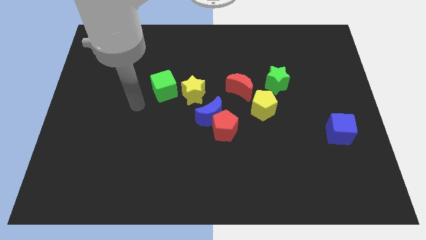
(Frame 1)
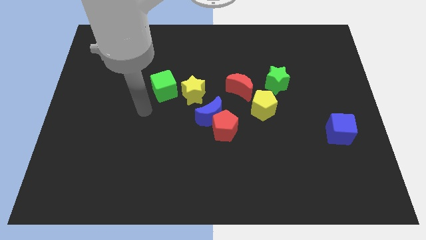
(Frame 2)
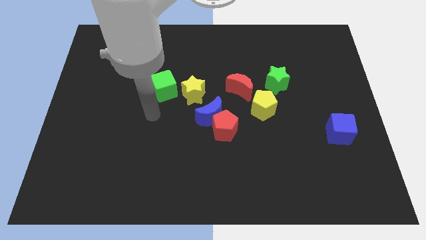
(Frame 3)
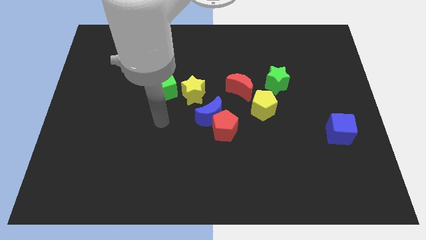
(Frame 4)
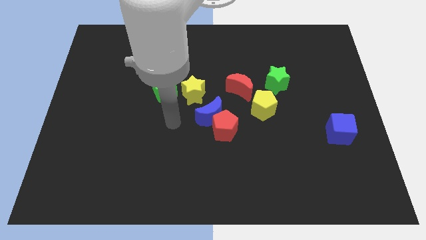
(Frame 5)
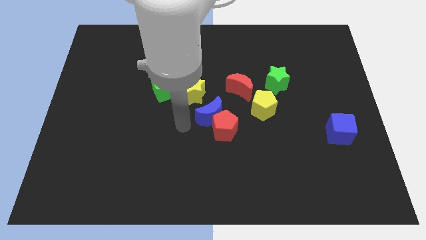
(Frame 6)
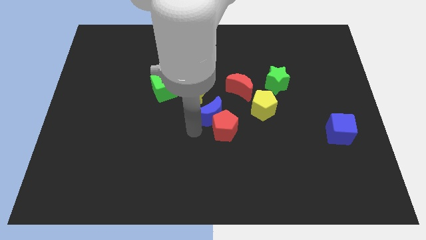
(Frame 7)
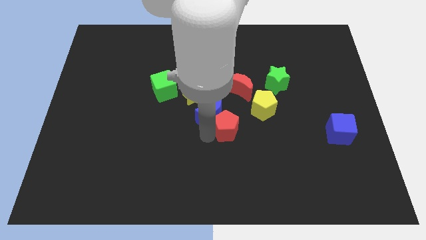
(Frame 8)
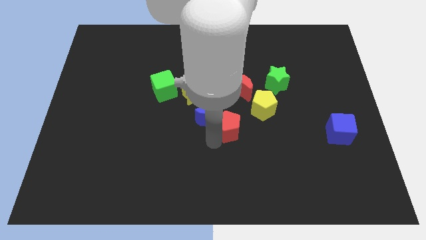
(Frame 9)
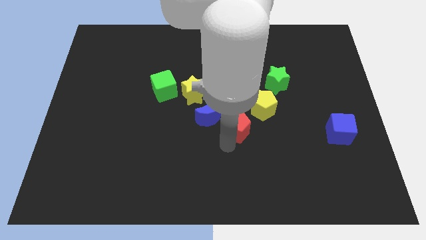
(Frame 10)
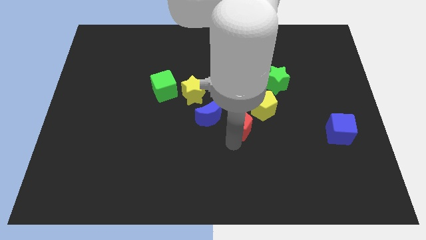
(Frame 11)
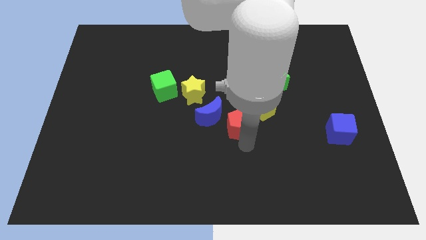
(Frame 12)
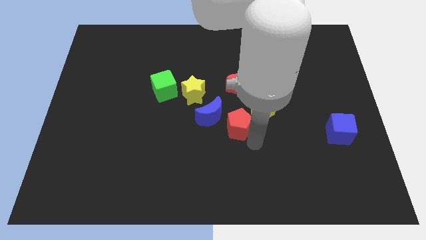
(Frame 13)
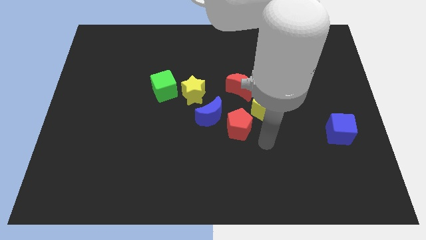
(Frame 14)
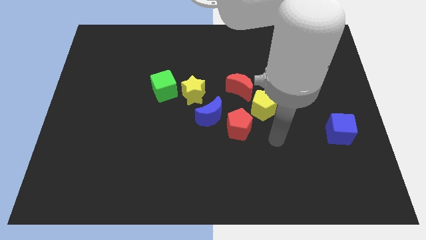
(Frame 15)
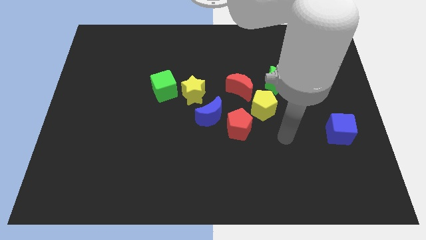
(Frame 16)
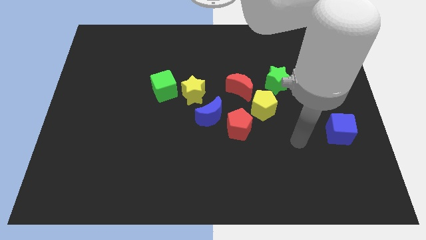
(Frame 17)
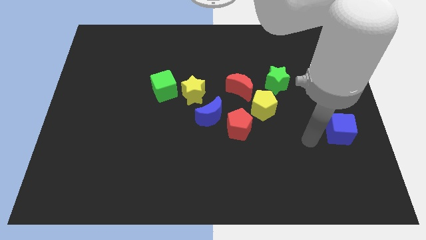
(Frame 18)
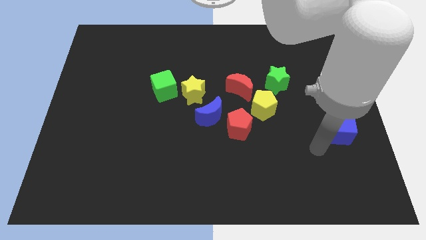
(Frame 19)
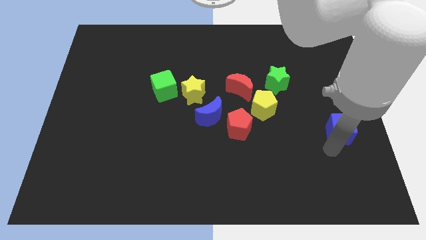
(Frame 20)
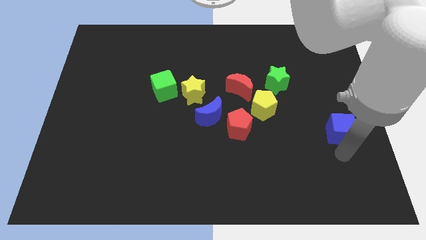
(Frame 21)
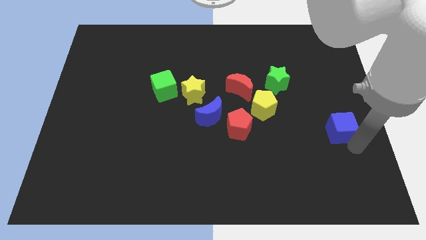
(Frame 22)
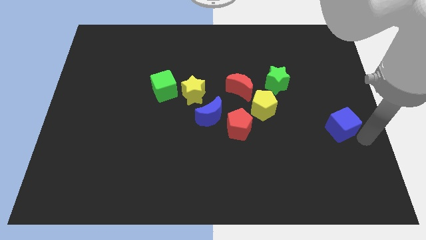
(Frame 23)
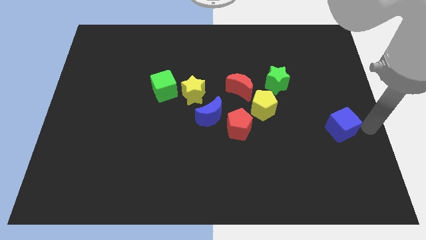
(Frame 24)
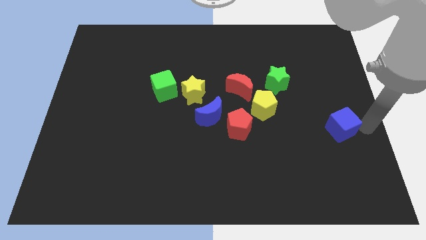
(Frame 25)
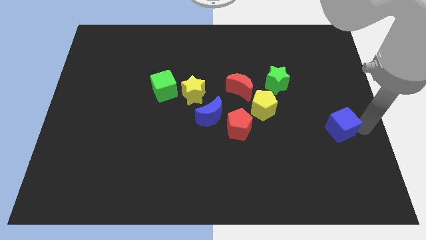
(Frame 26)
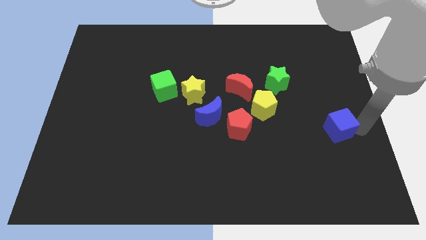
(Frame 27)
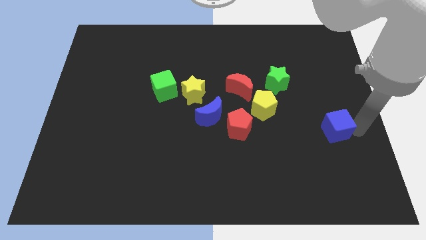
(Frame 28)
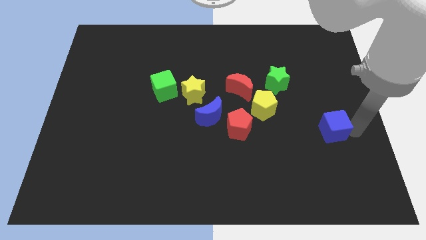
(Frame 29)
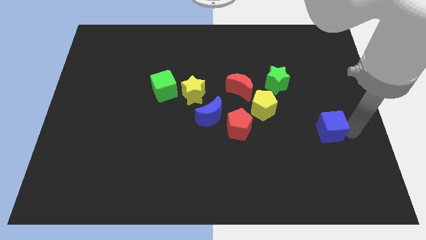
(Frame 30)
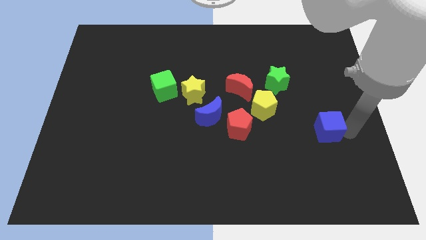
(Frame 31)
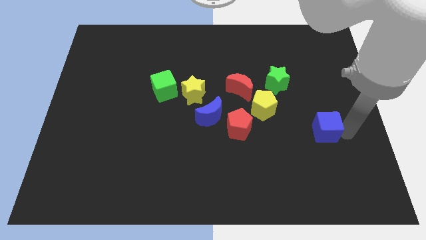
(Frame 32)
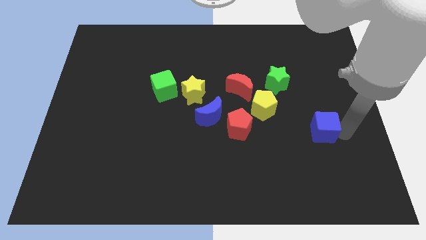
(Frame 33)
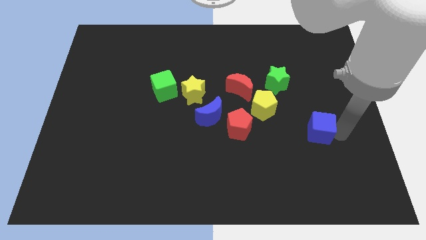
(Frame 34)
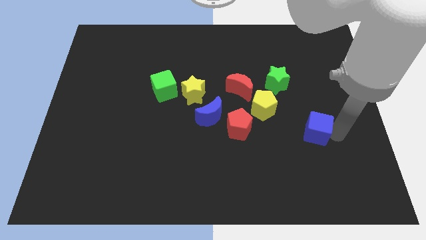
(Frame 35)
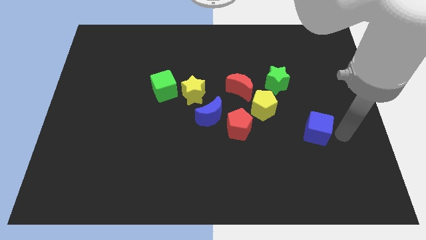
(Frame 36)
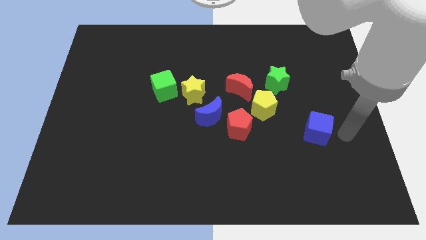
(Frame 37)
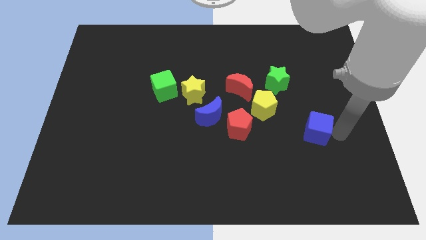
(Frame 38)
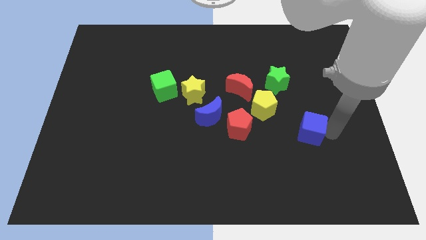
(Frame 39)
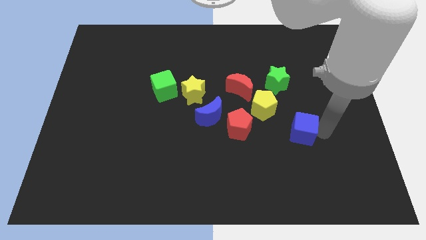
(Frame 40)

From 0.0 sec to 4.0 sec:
move the blue cube a bit left

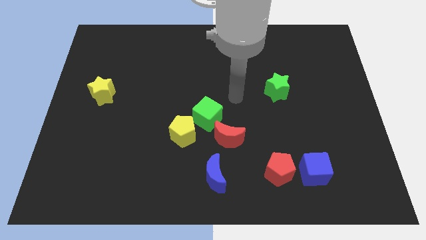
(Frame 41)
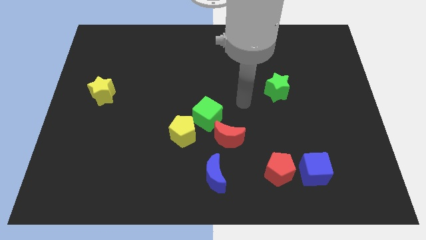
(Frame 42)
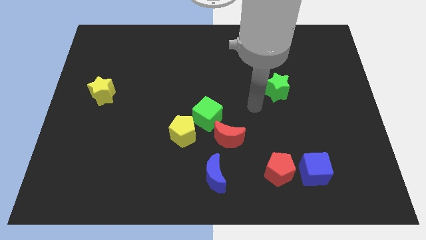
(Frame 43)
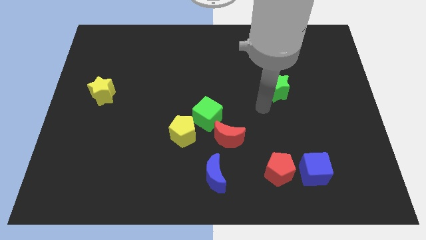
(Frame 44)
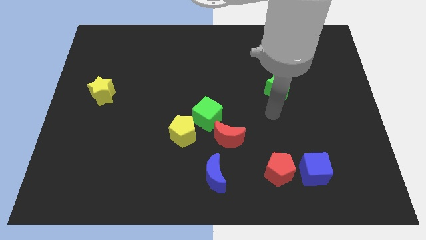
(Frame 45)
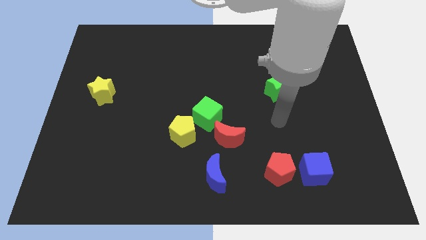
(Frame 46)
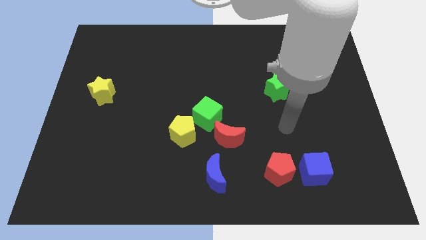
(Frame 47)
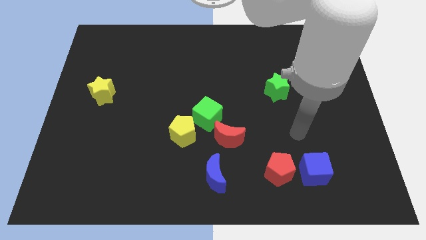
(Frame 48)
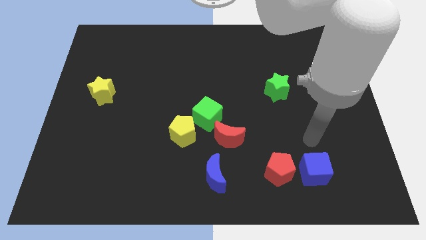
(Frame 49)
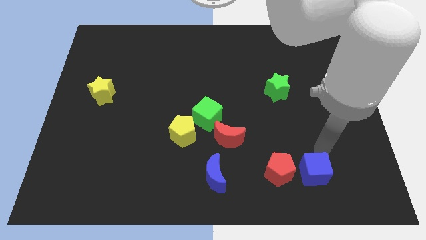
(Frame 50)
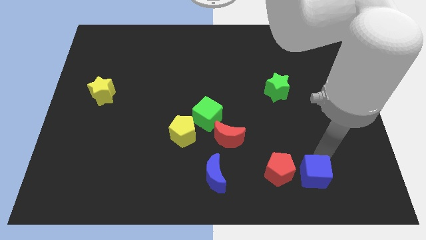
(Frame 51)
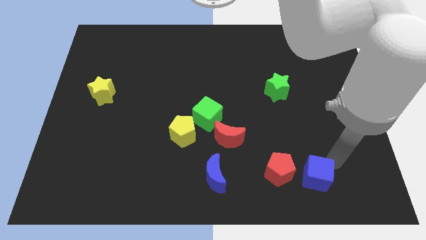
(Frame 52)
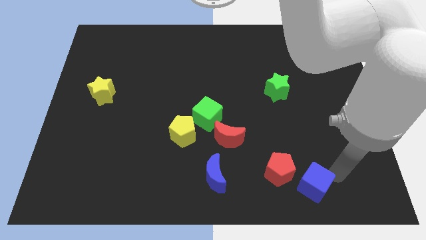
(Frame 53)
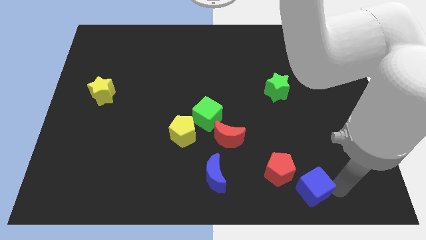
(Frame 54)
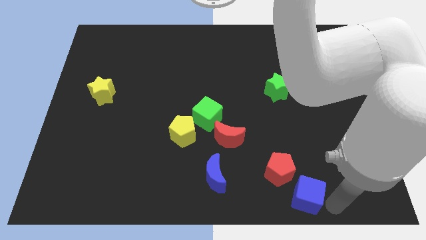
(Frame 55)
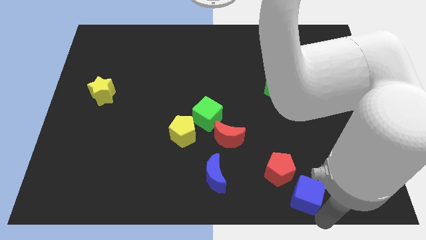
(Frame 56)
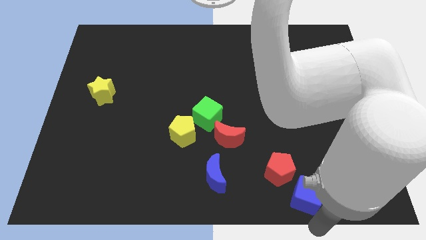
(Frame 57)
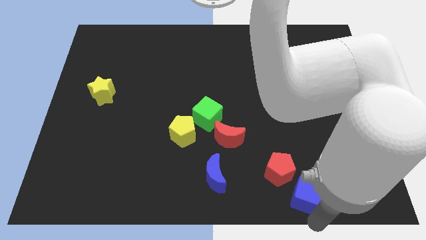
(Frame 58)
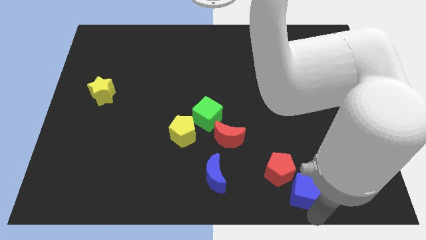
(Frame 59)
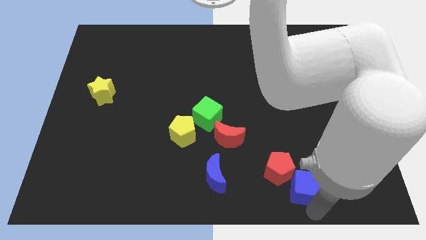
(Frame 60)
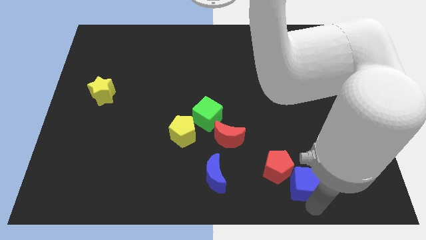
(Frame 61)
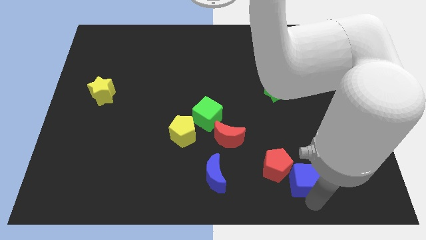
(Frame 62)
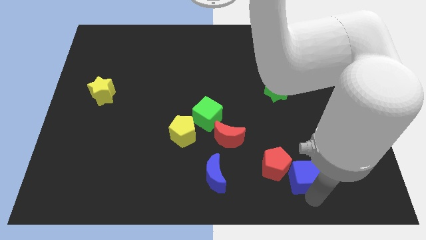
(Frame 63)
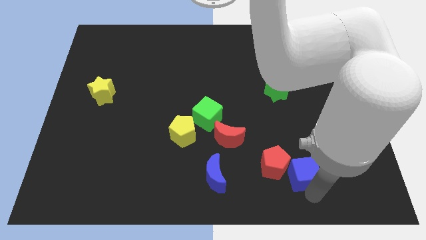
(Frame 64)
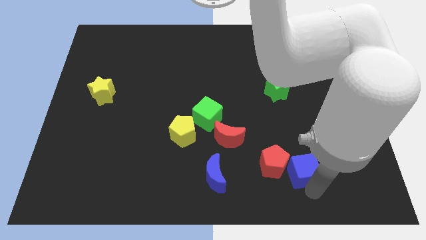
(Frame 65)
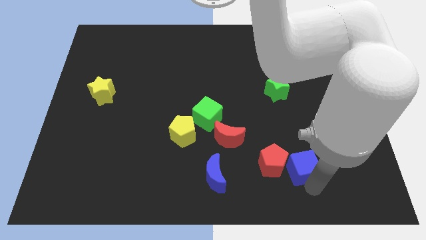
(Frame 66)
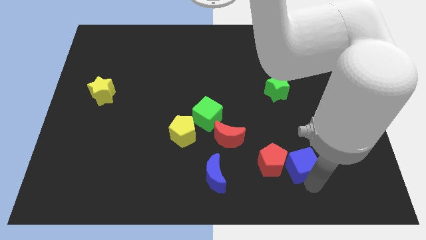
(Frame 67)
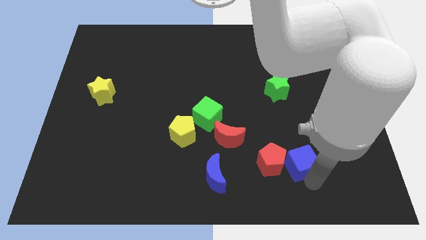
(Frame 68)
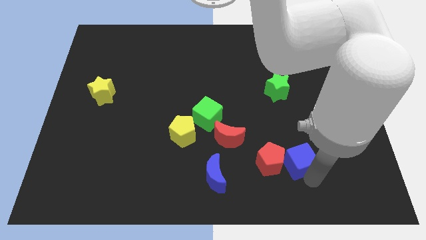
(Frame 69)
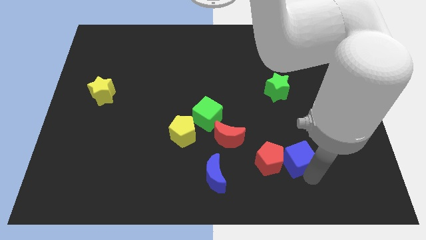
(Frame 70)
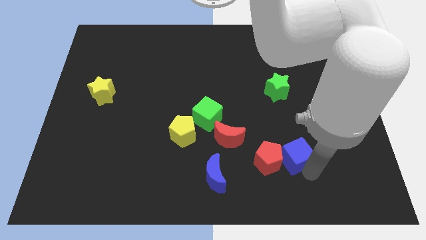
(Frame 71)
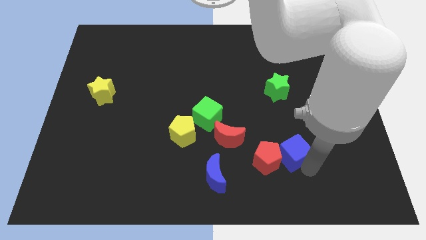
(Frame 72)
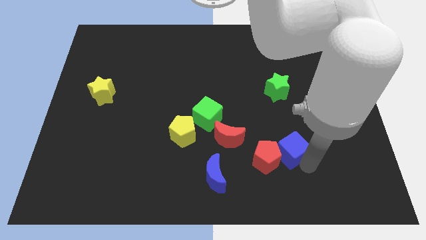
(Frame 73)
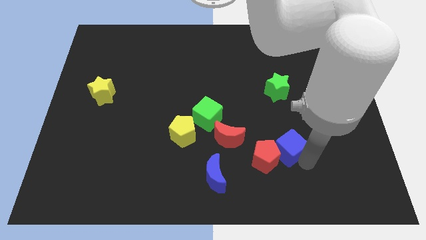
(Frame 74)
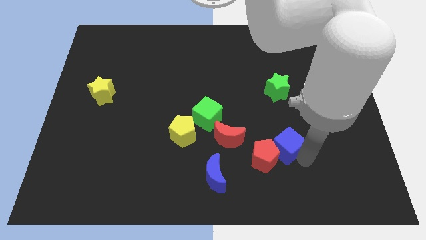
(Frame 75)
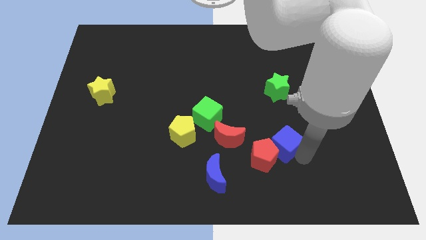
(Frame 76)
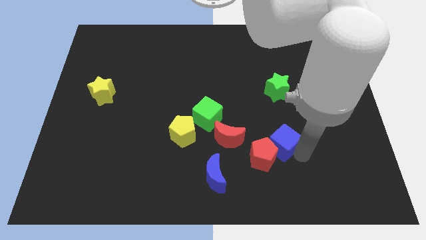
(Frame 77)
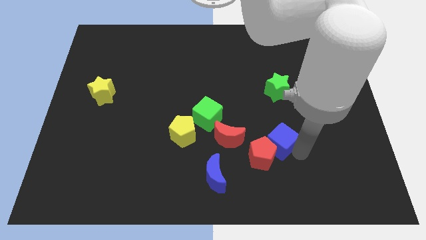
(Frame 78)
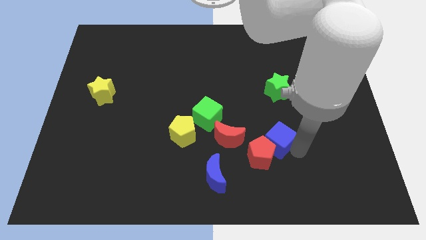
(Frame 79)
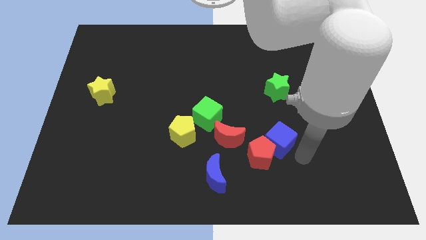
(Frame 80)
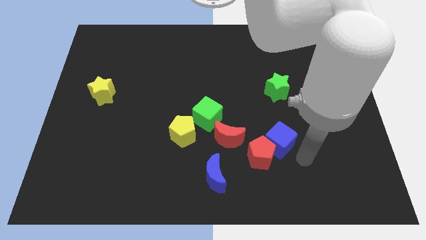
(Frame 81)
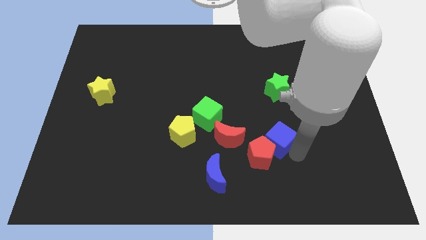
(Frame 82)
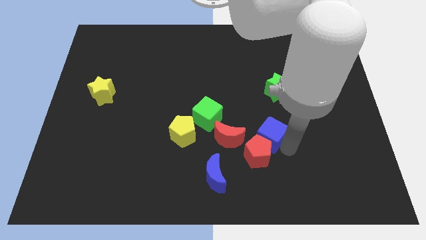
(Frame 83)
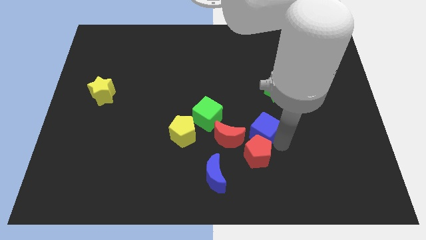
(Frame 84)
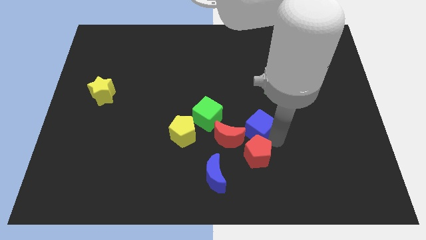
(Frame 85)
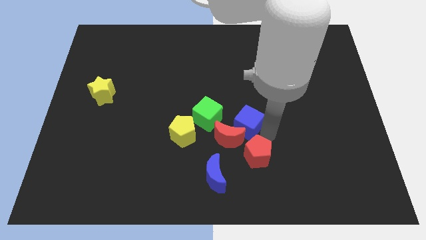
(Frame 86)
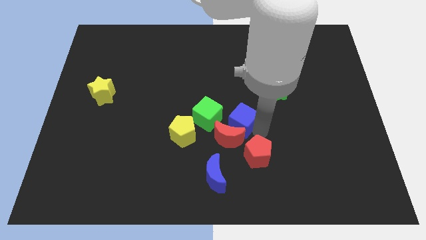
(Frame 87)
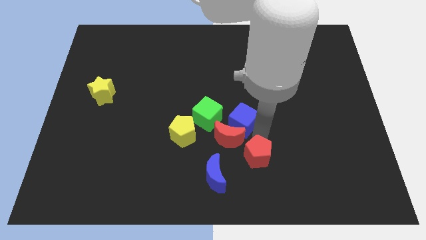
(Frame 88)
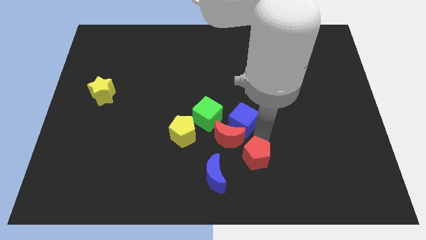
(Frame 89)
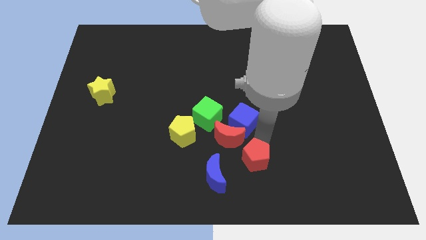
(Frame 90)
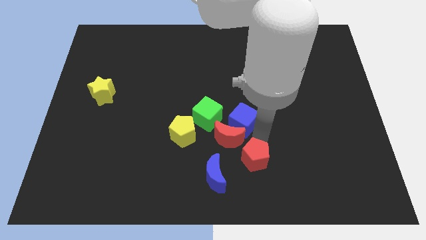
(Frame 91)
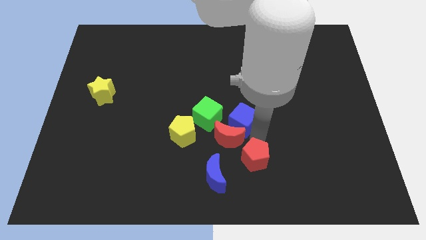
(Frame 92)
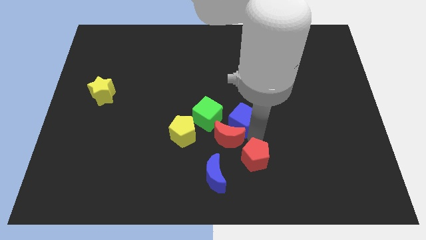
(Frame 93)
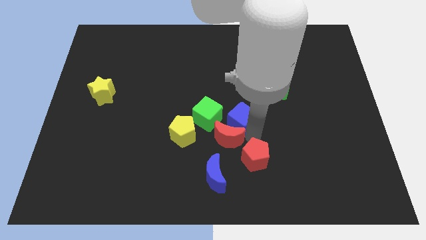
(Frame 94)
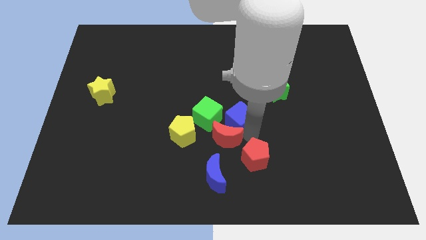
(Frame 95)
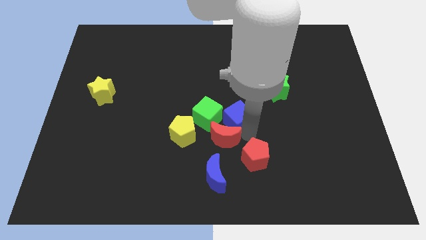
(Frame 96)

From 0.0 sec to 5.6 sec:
push the blue cube up and to the left diagonally
